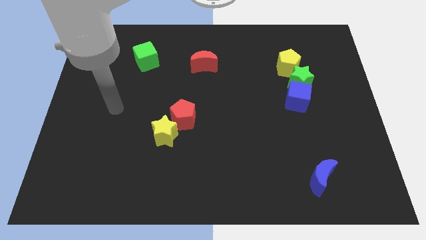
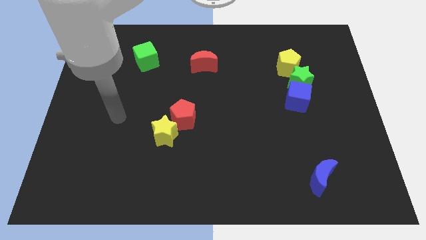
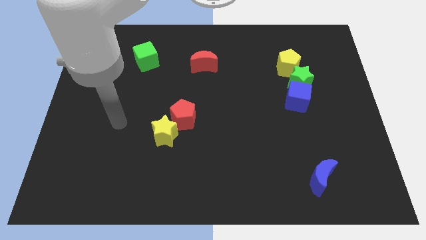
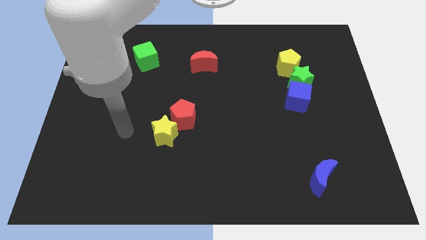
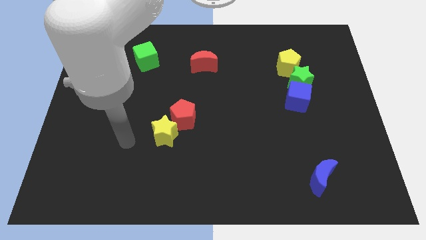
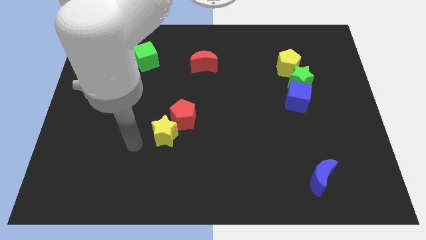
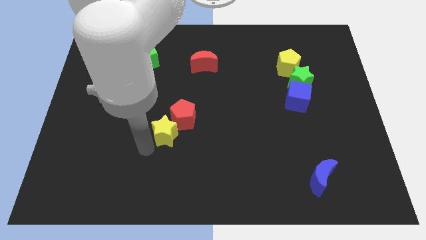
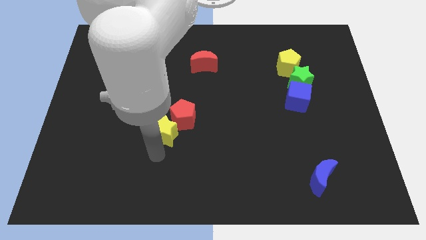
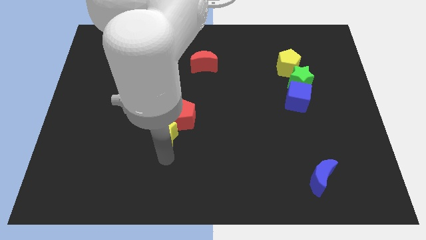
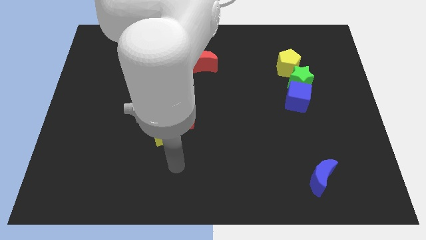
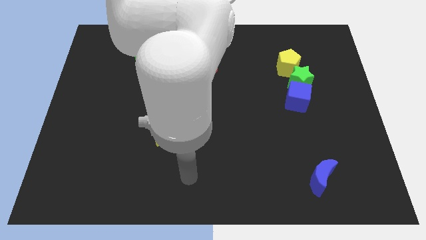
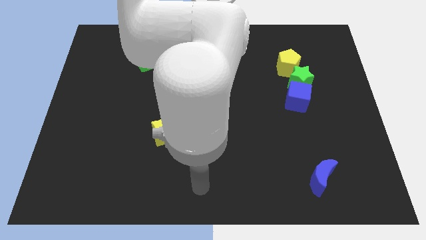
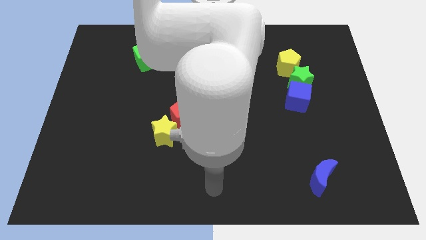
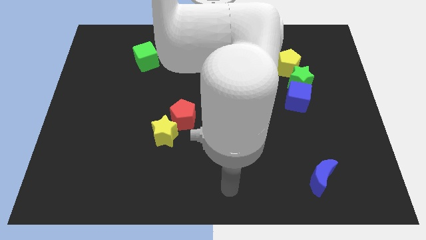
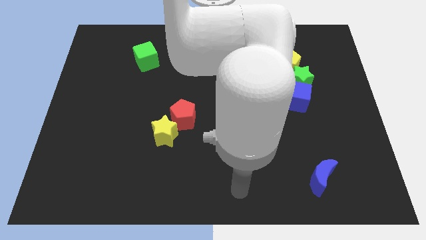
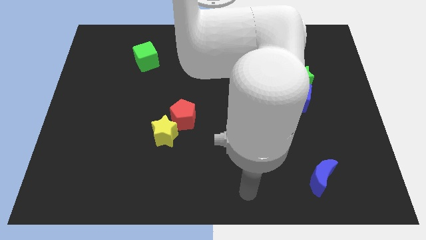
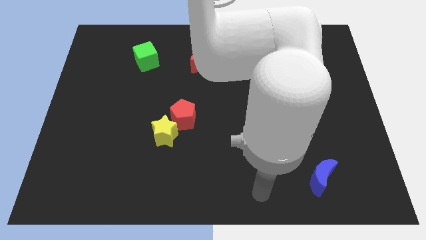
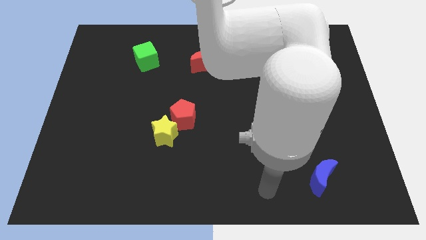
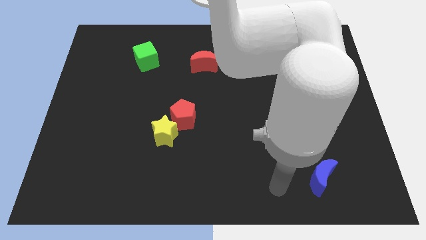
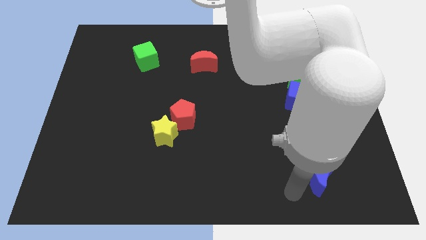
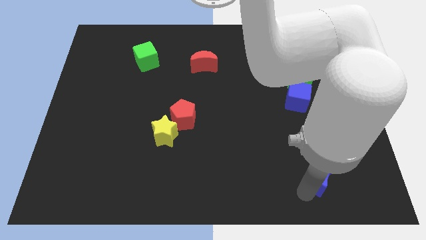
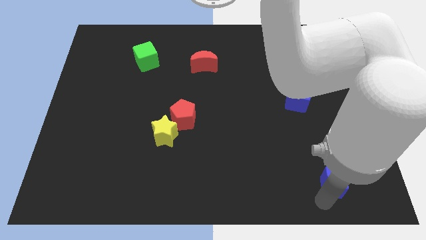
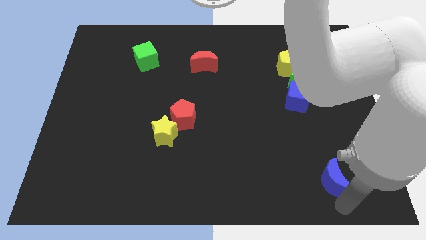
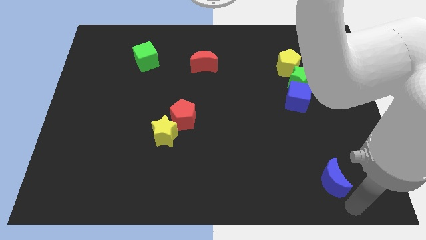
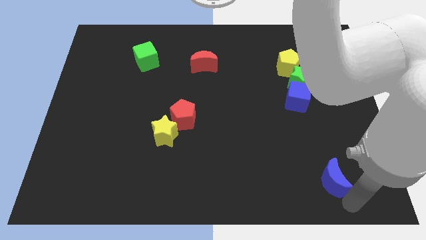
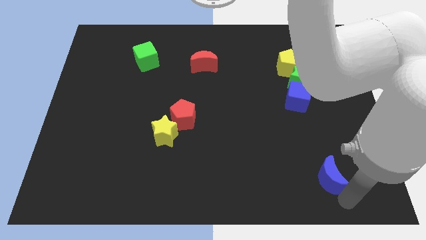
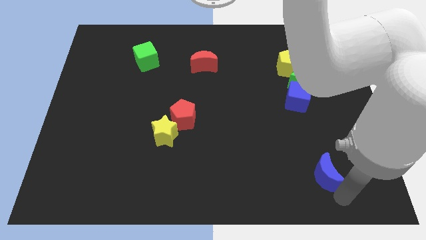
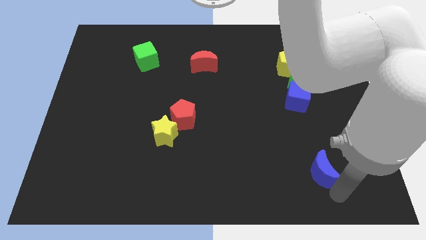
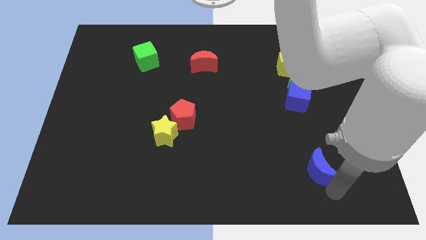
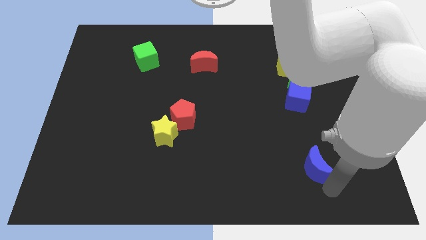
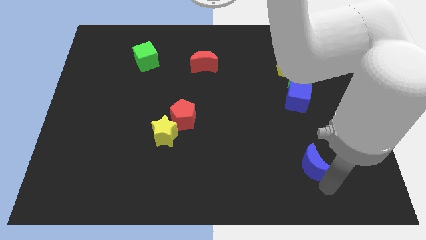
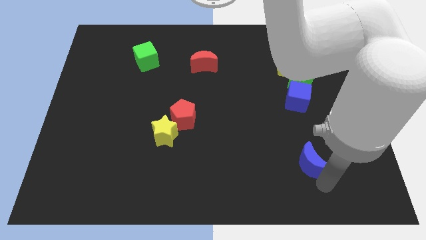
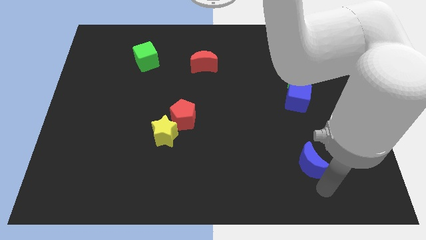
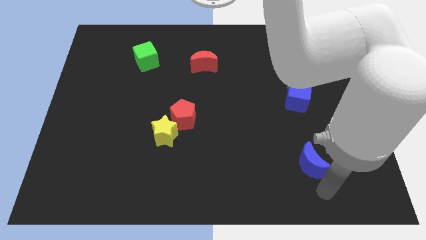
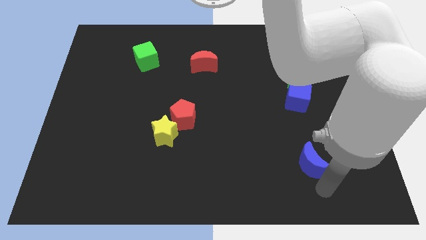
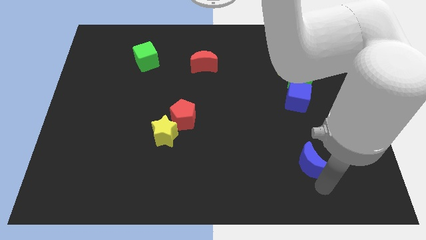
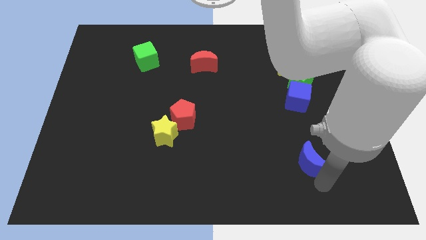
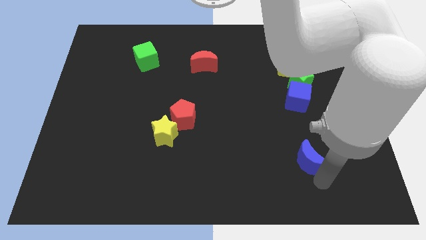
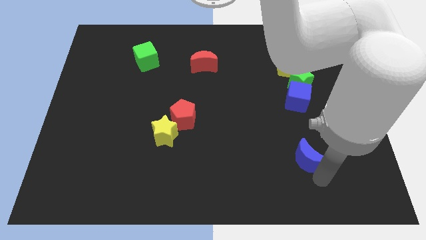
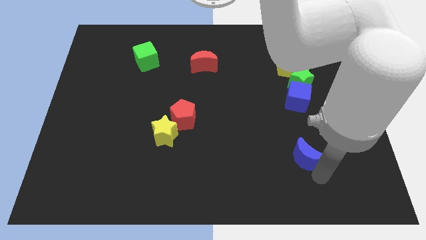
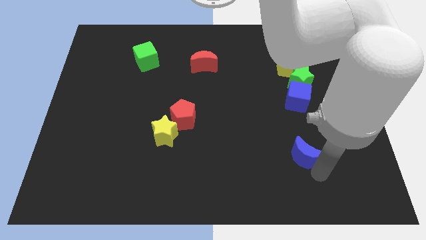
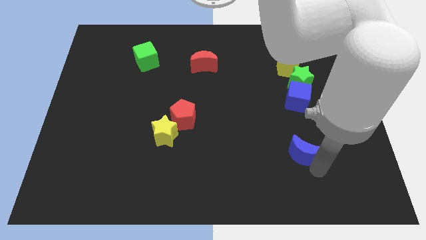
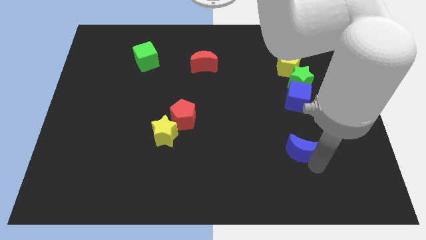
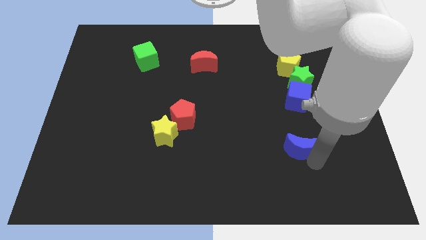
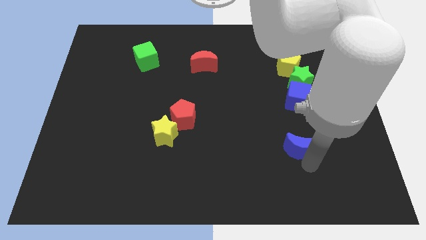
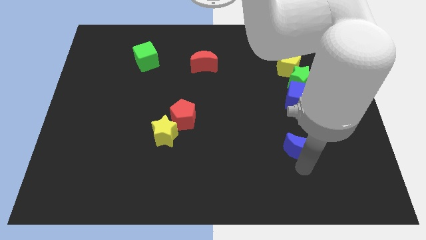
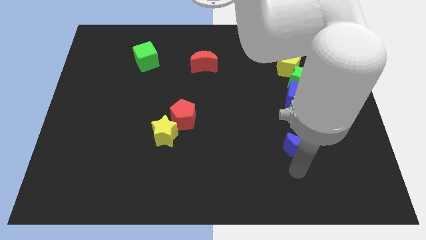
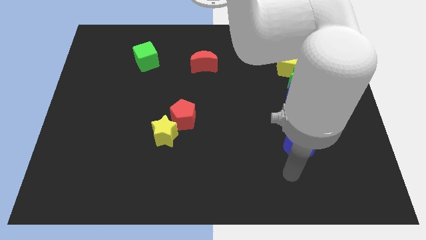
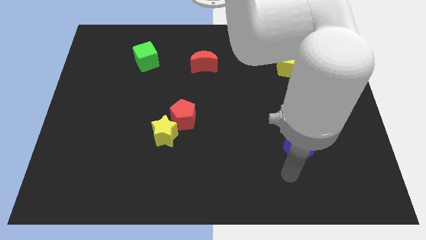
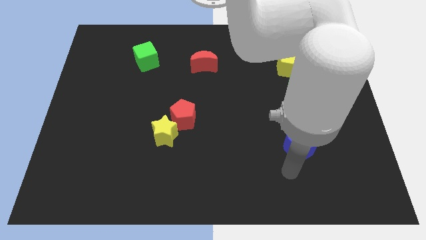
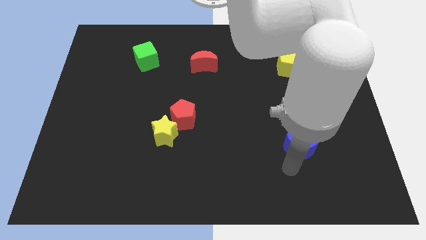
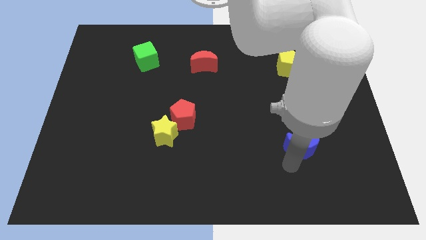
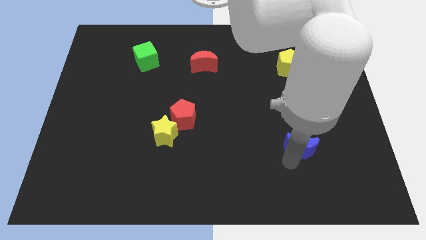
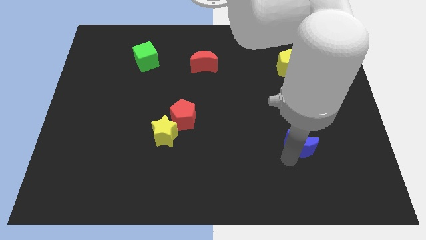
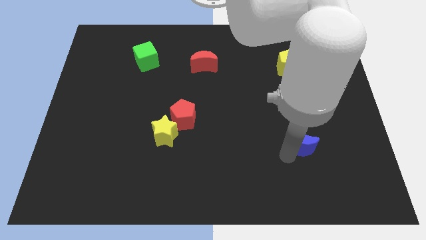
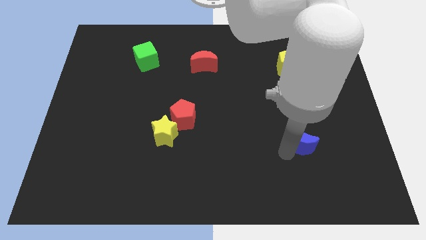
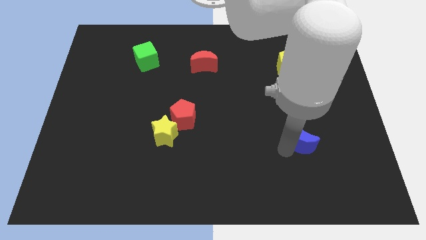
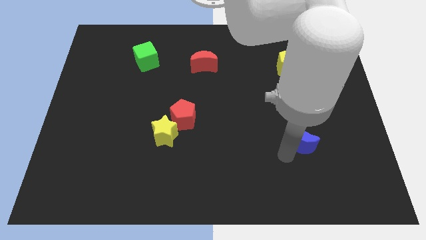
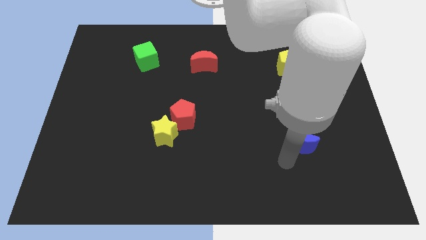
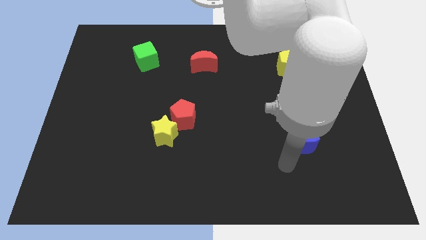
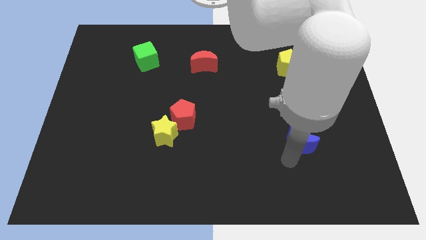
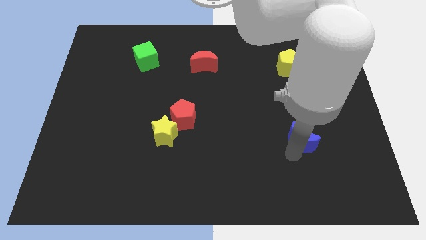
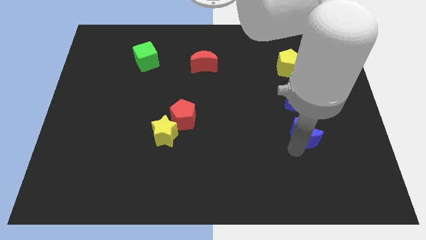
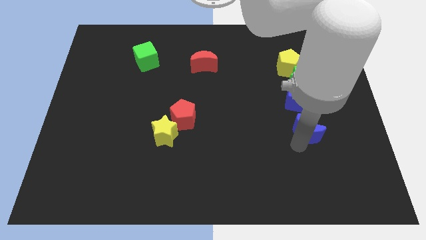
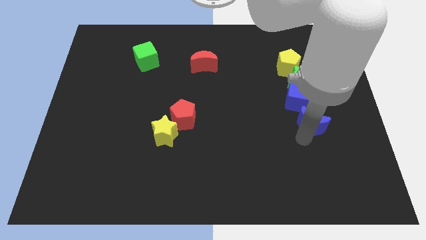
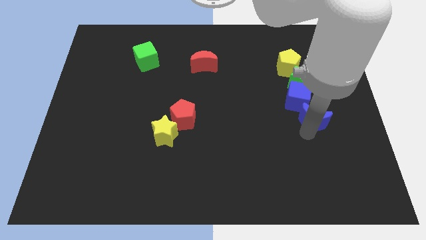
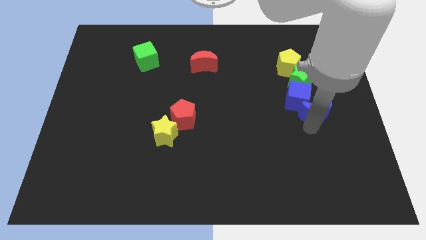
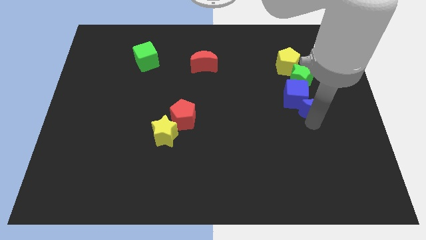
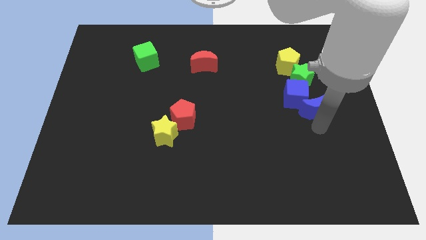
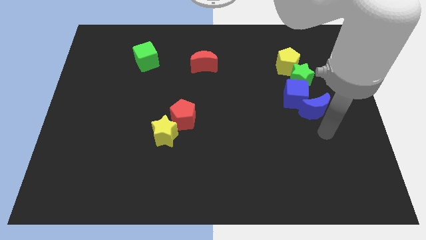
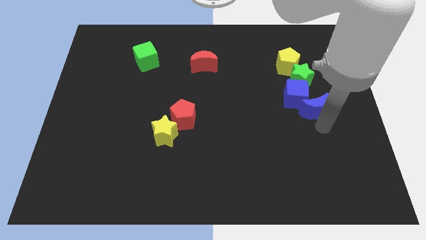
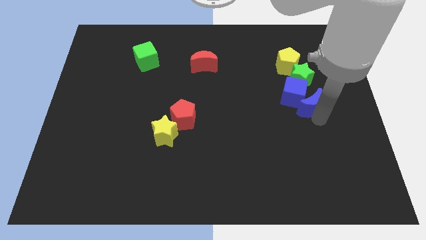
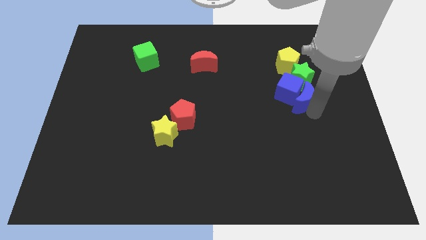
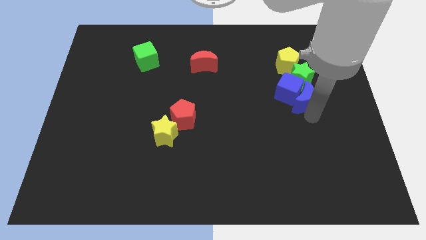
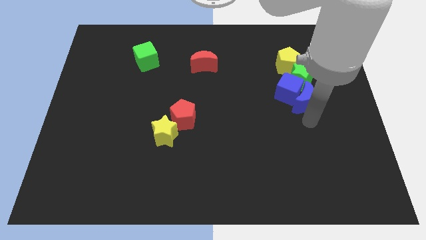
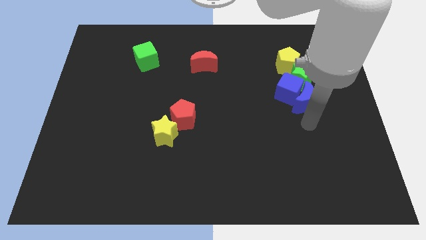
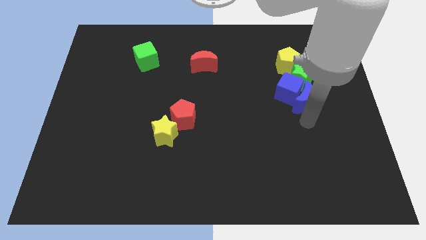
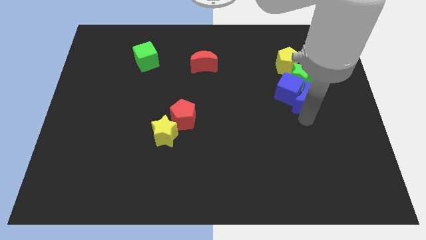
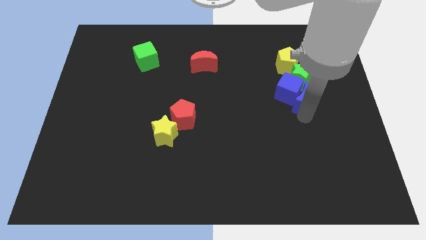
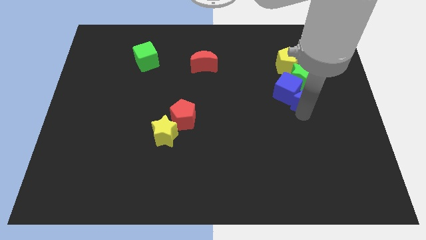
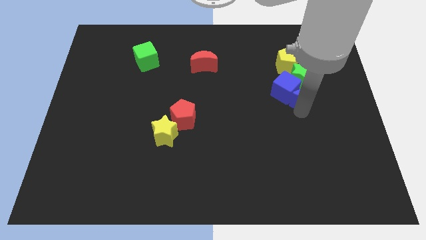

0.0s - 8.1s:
move the blue moon next to the green star

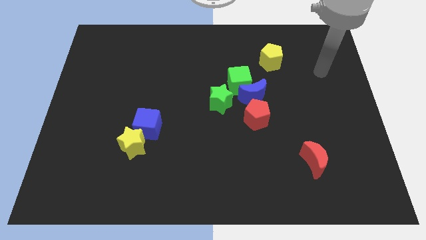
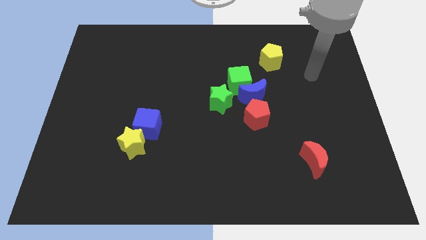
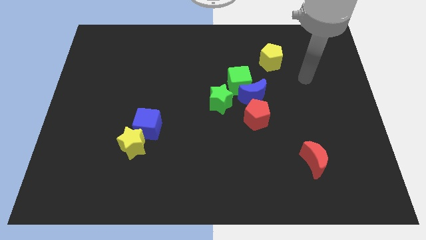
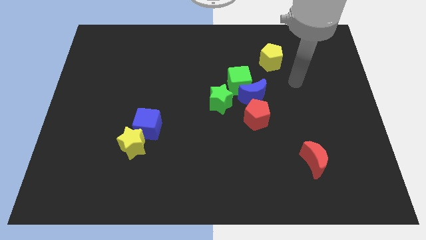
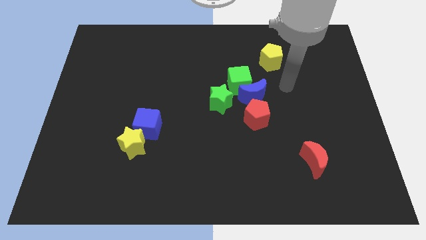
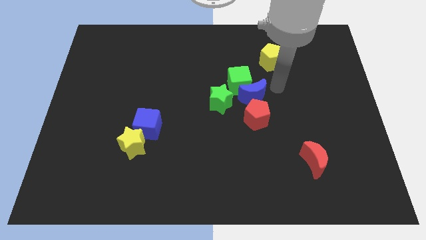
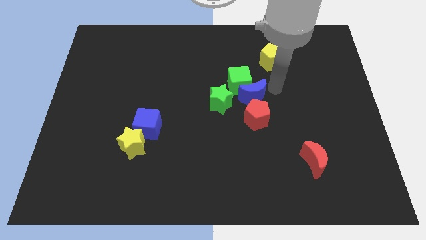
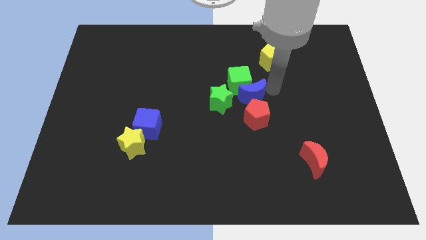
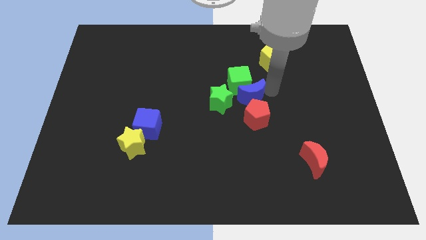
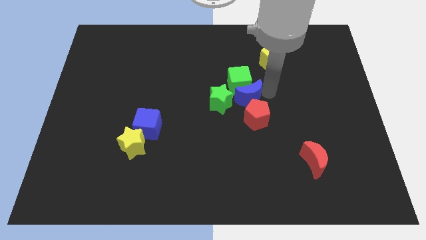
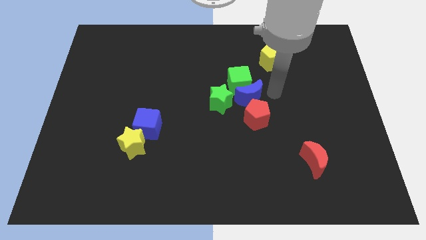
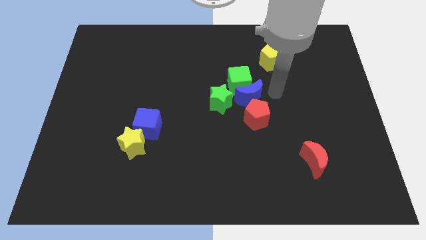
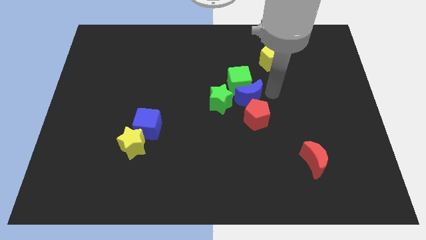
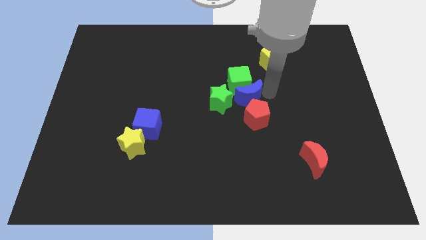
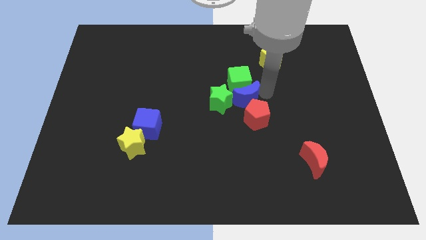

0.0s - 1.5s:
slide the blue moon close to the green star
